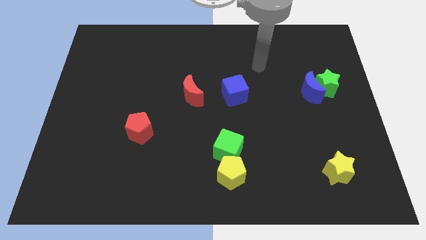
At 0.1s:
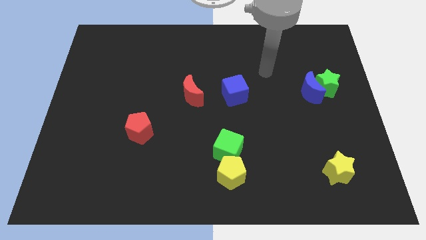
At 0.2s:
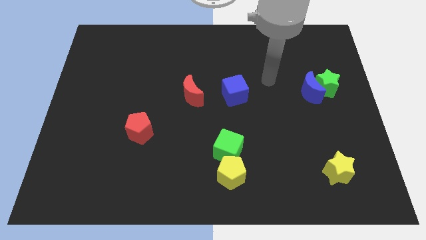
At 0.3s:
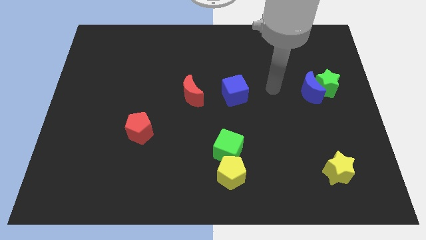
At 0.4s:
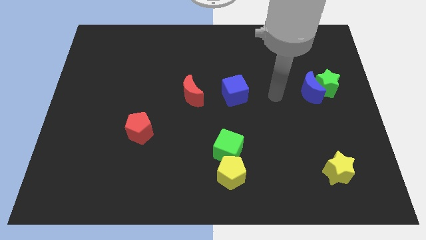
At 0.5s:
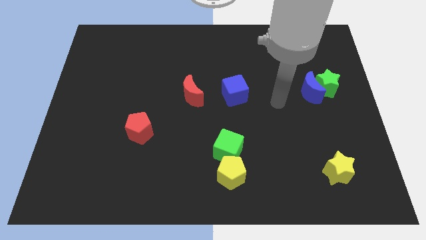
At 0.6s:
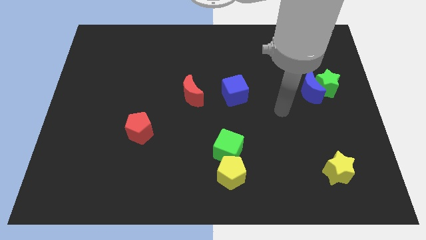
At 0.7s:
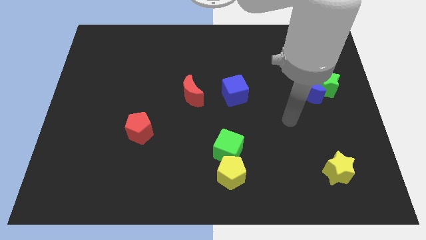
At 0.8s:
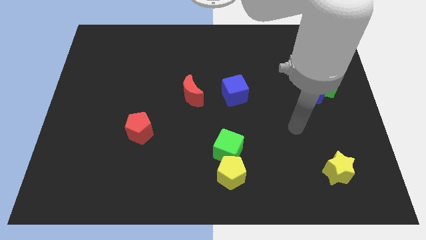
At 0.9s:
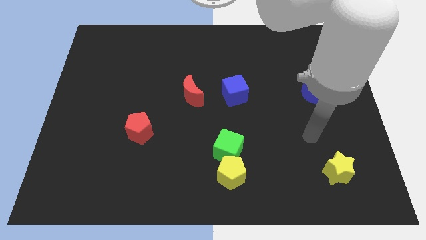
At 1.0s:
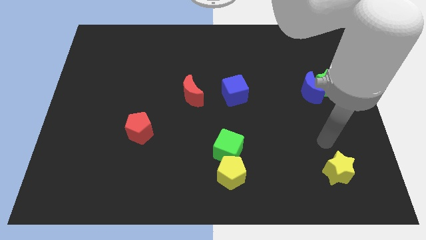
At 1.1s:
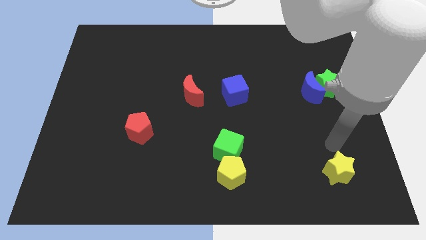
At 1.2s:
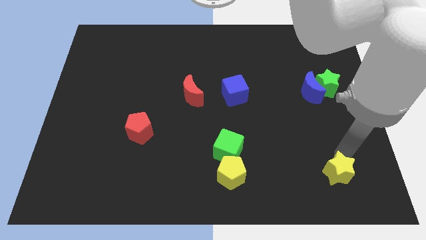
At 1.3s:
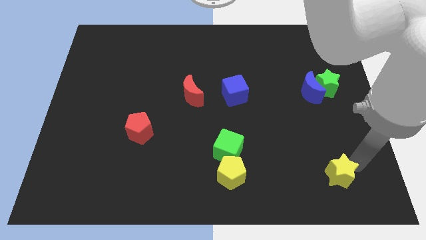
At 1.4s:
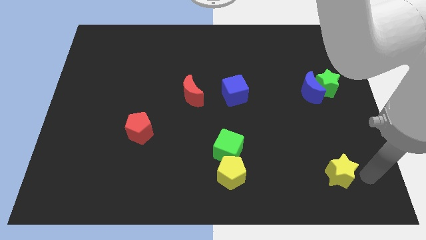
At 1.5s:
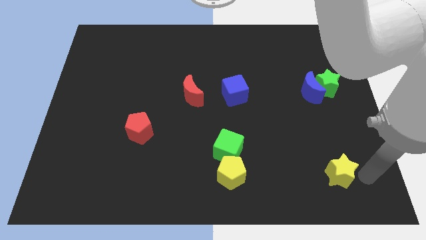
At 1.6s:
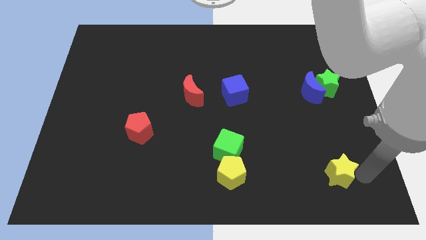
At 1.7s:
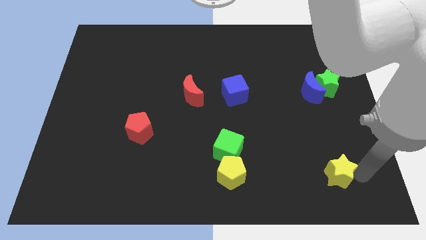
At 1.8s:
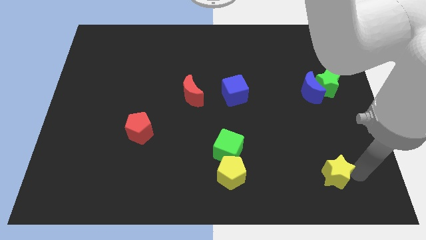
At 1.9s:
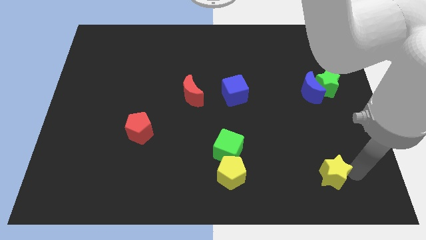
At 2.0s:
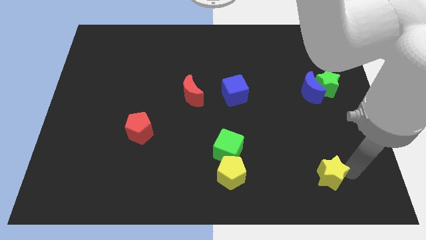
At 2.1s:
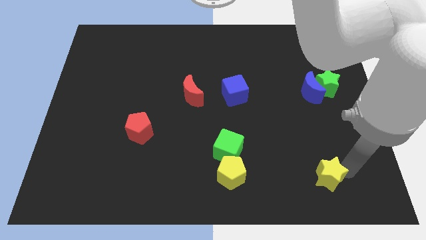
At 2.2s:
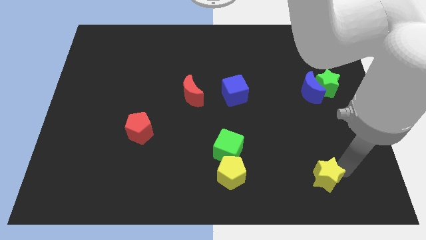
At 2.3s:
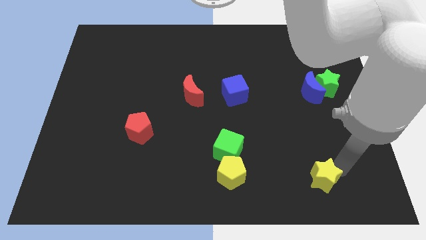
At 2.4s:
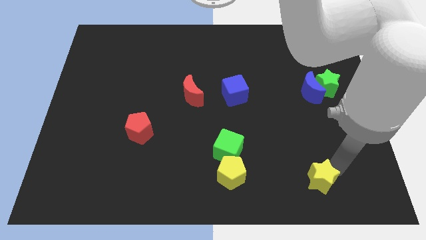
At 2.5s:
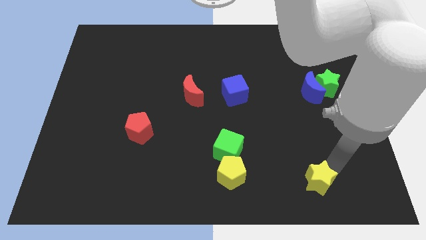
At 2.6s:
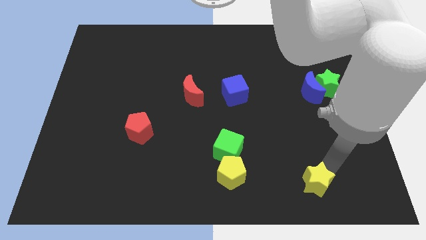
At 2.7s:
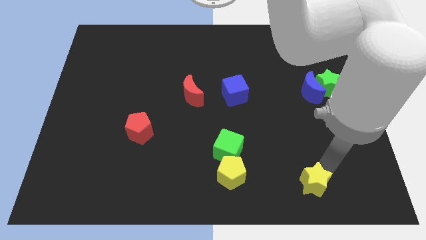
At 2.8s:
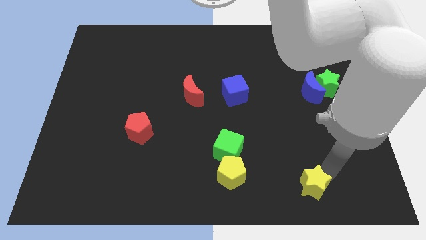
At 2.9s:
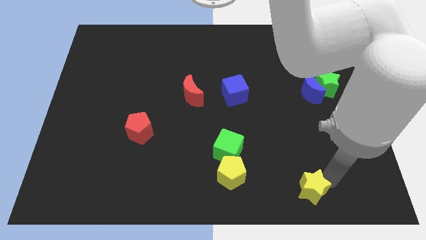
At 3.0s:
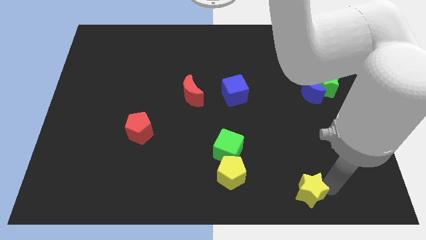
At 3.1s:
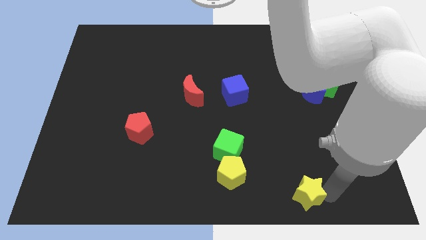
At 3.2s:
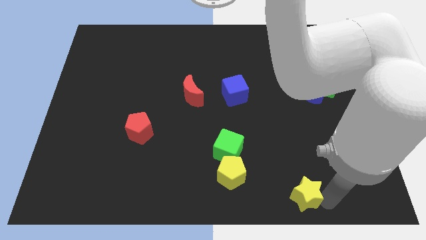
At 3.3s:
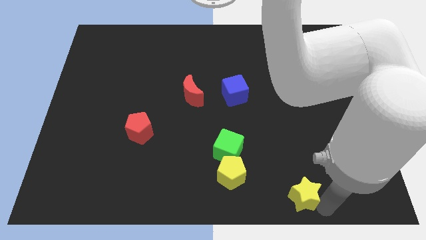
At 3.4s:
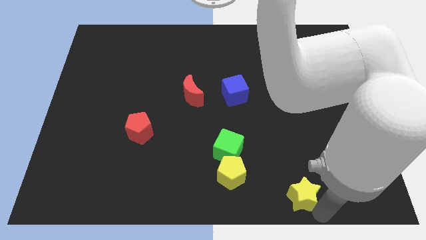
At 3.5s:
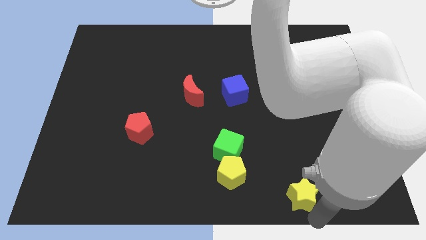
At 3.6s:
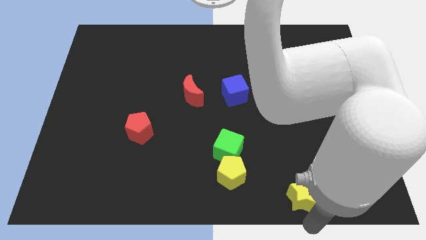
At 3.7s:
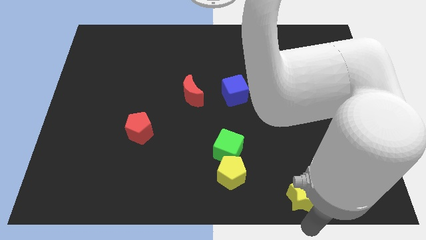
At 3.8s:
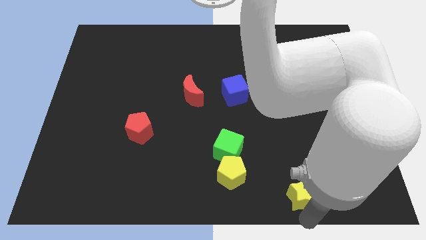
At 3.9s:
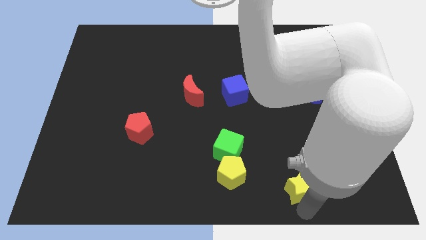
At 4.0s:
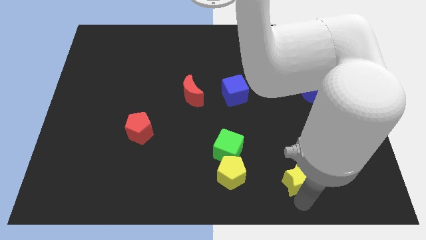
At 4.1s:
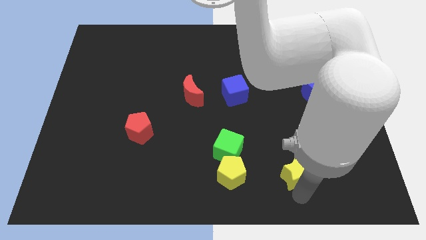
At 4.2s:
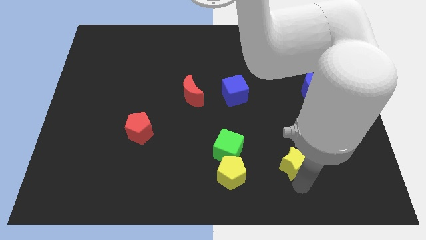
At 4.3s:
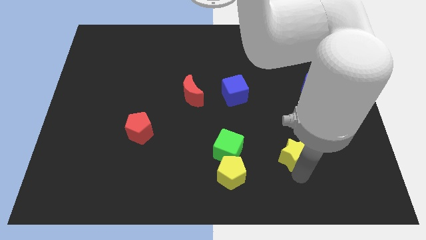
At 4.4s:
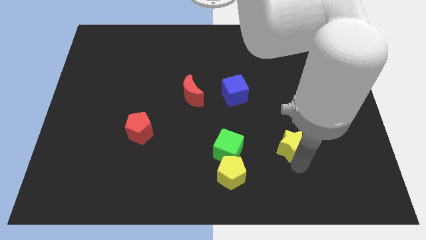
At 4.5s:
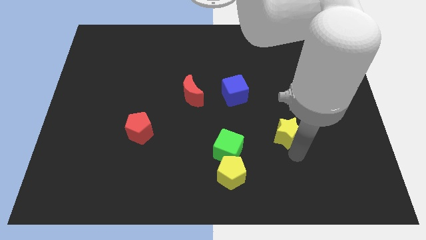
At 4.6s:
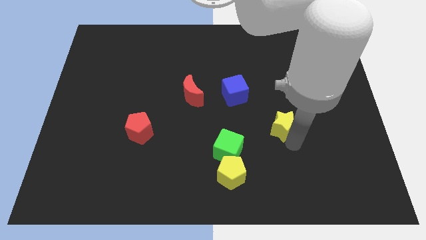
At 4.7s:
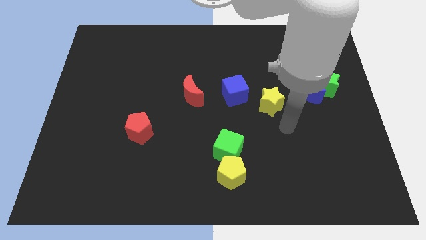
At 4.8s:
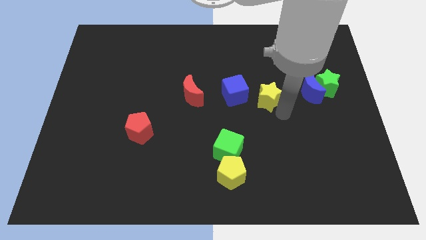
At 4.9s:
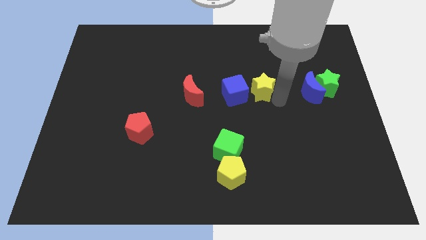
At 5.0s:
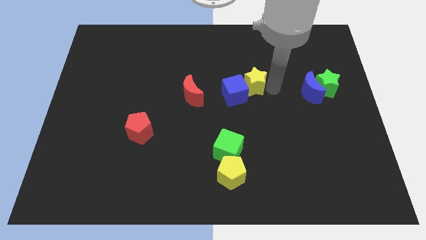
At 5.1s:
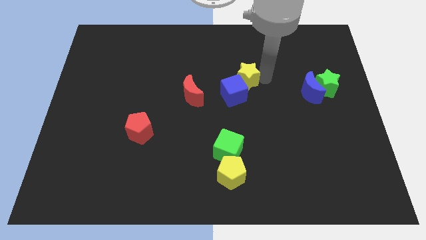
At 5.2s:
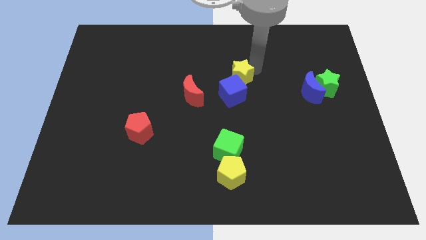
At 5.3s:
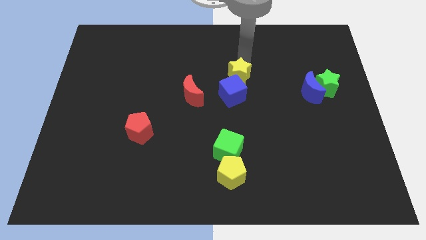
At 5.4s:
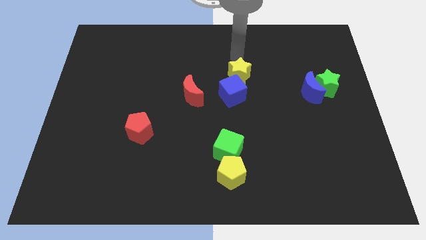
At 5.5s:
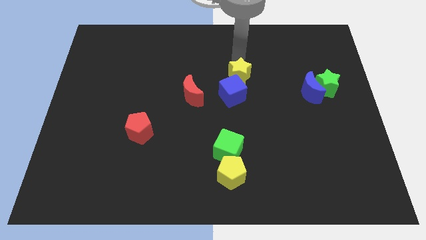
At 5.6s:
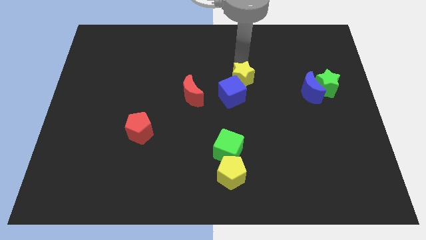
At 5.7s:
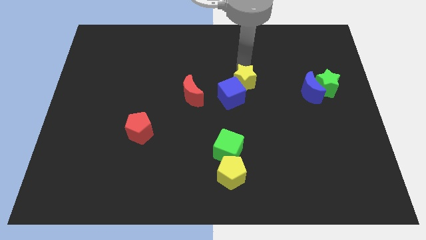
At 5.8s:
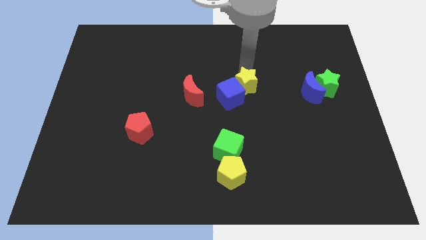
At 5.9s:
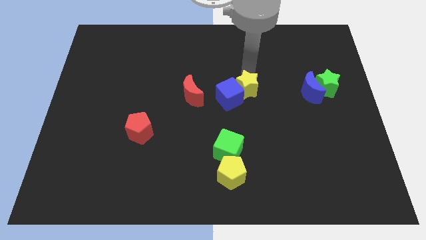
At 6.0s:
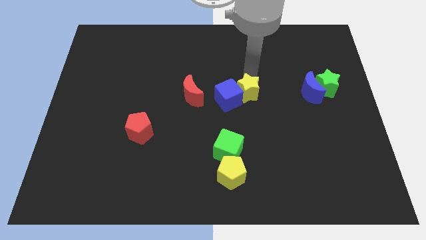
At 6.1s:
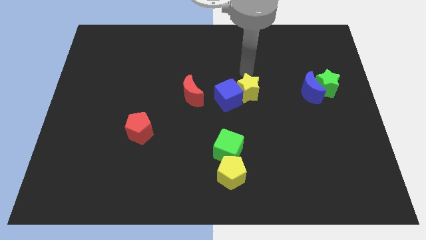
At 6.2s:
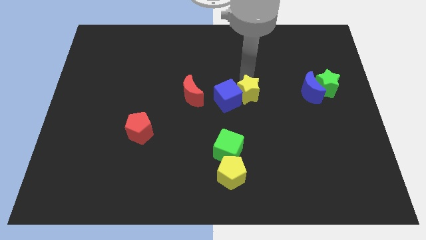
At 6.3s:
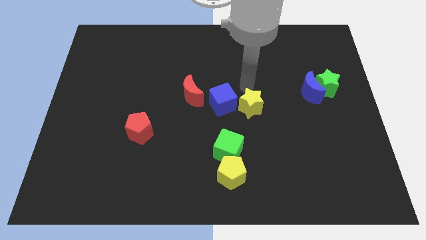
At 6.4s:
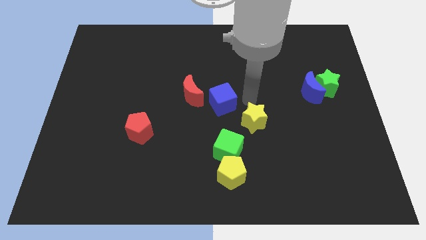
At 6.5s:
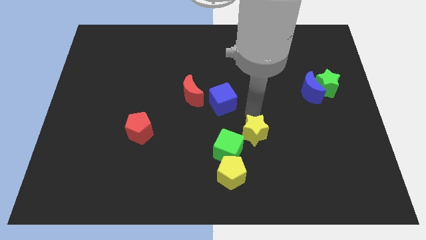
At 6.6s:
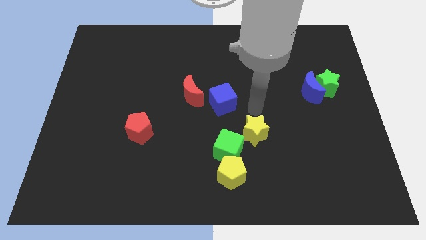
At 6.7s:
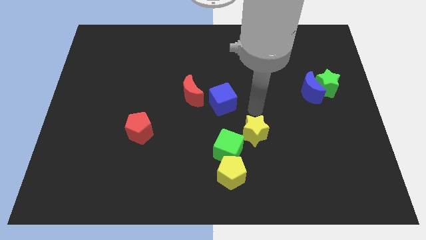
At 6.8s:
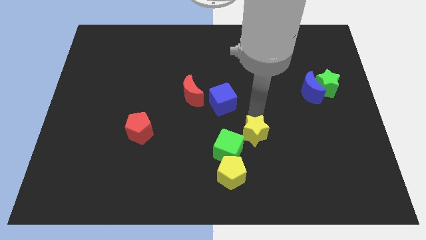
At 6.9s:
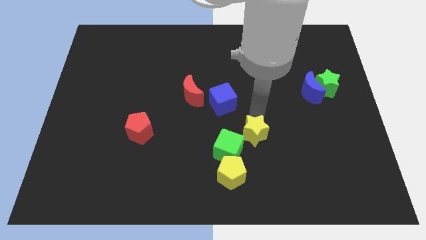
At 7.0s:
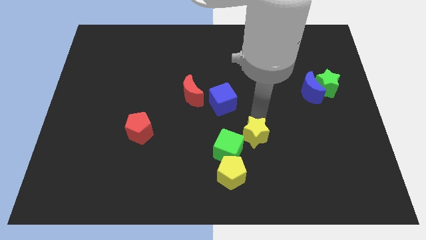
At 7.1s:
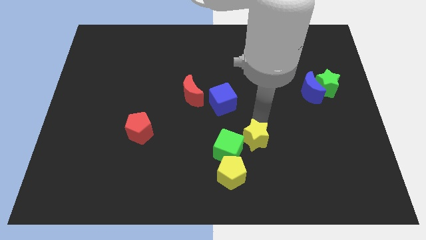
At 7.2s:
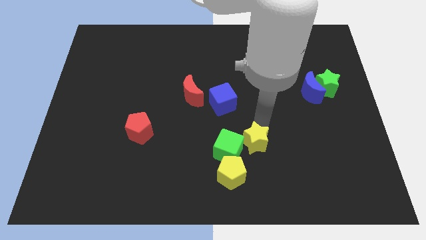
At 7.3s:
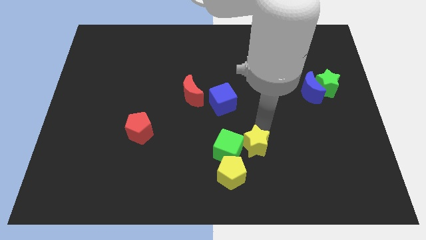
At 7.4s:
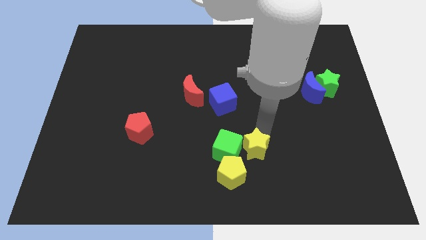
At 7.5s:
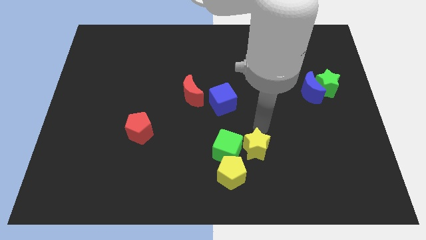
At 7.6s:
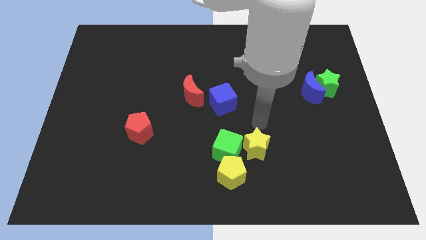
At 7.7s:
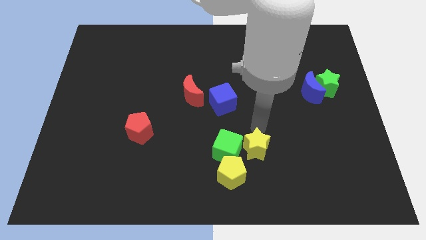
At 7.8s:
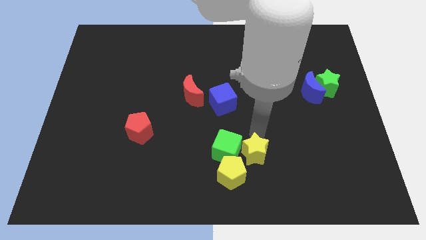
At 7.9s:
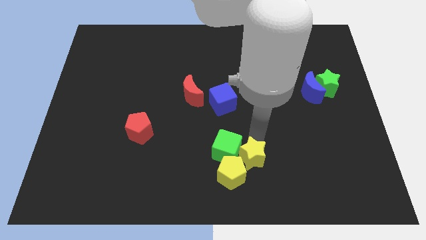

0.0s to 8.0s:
slide the yellow star towards the yellow pentagon
